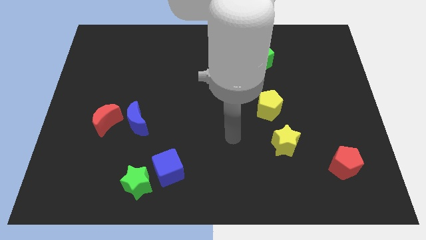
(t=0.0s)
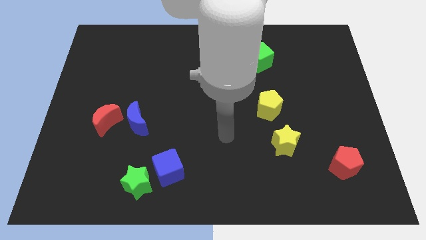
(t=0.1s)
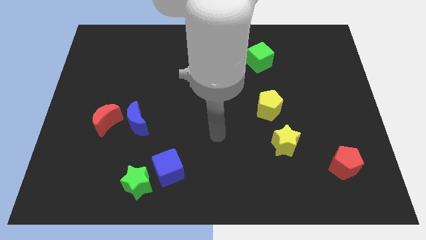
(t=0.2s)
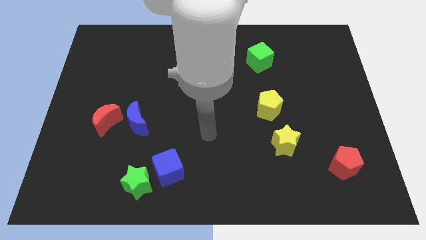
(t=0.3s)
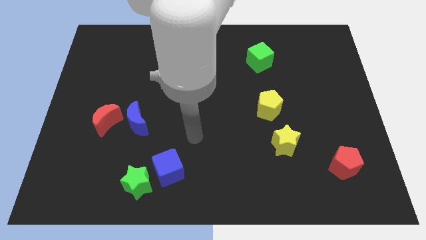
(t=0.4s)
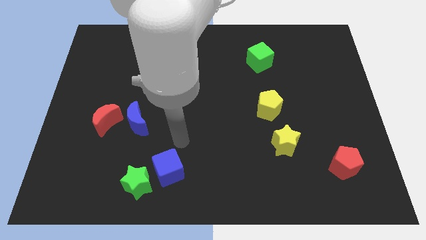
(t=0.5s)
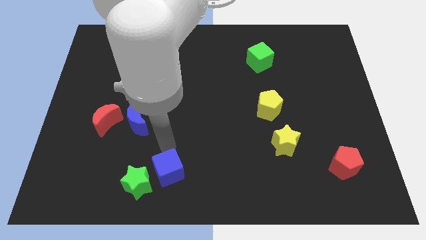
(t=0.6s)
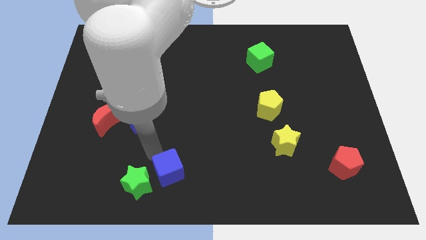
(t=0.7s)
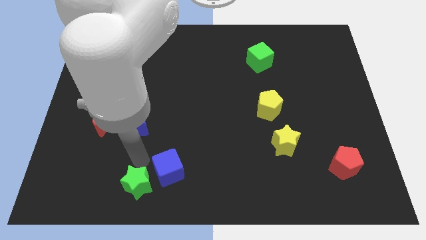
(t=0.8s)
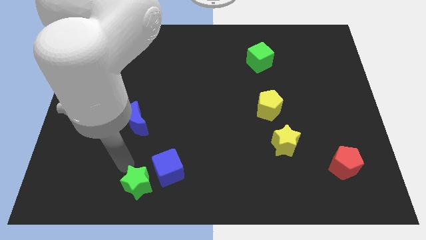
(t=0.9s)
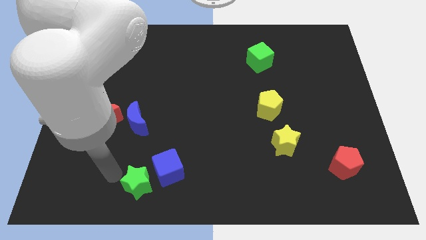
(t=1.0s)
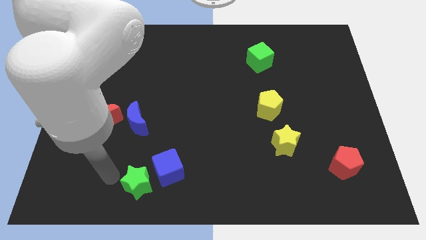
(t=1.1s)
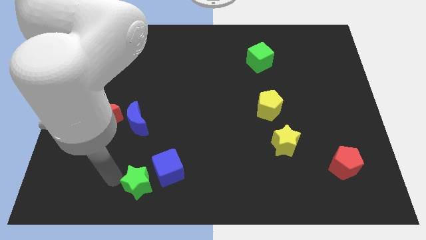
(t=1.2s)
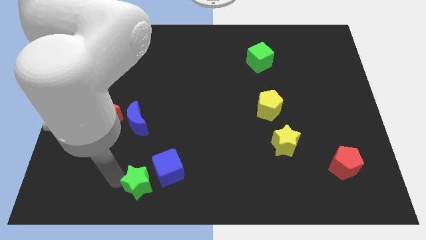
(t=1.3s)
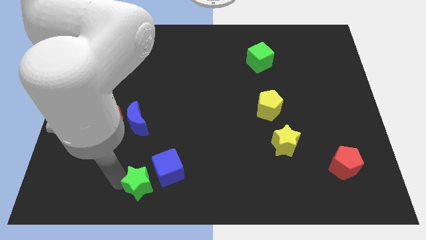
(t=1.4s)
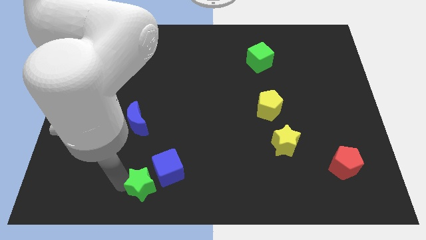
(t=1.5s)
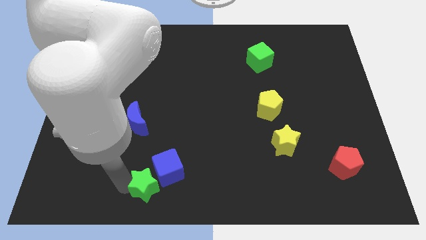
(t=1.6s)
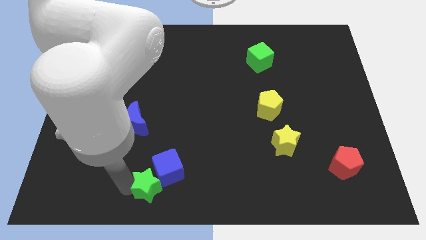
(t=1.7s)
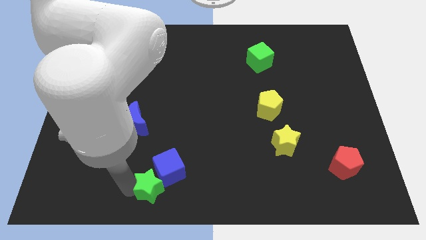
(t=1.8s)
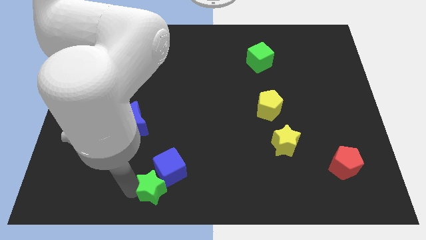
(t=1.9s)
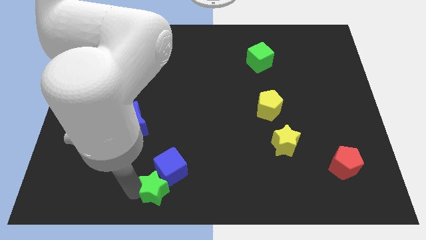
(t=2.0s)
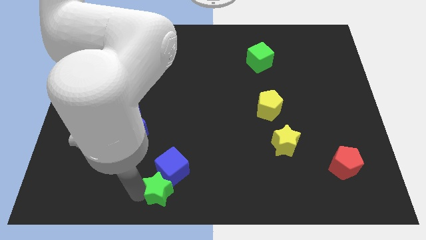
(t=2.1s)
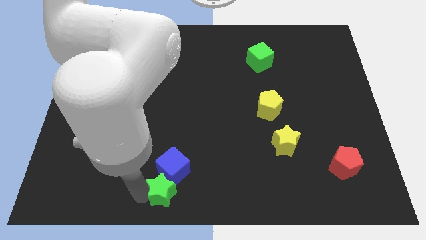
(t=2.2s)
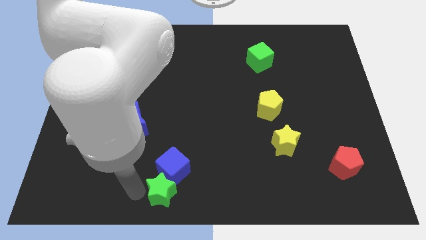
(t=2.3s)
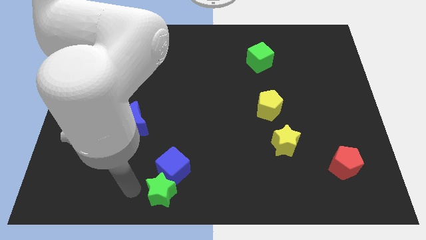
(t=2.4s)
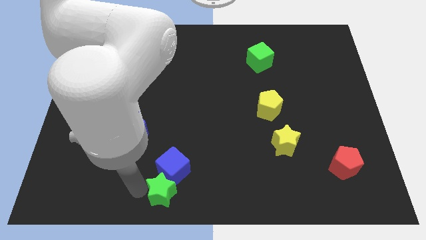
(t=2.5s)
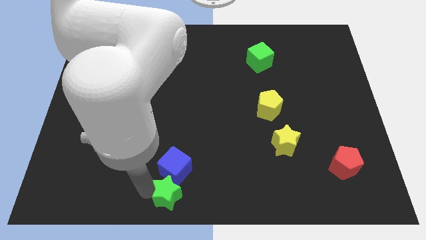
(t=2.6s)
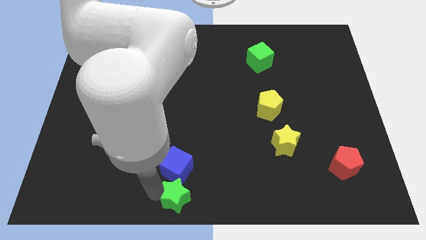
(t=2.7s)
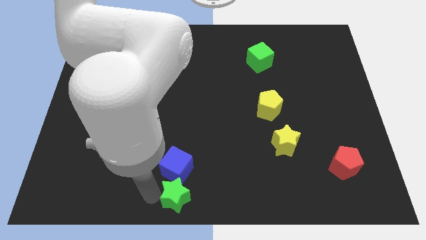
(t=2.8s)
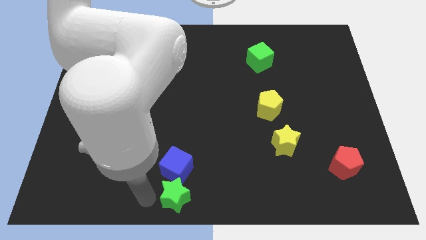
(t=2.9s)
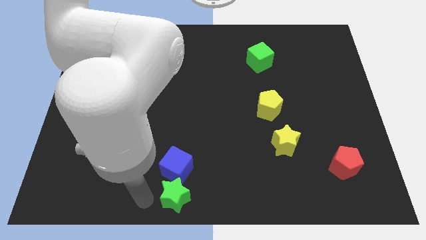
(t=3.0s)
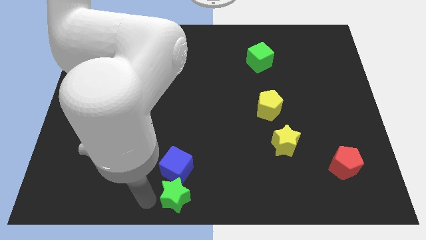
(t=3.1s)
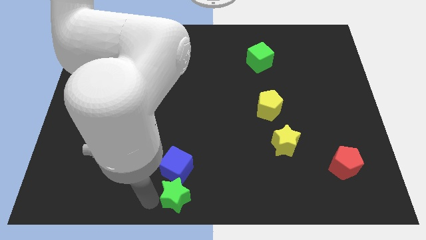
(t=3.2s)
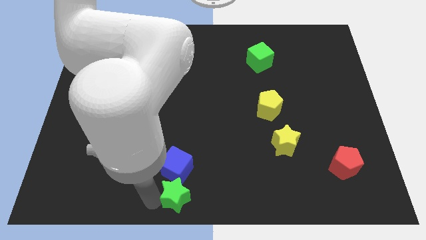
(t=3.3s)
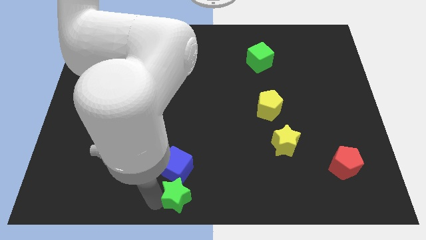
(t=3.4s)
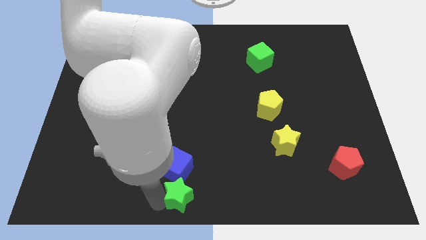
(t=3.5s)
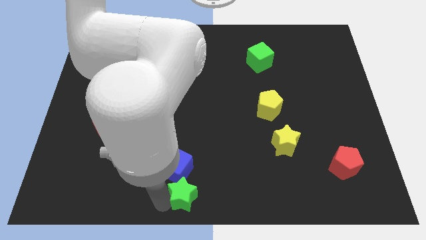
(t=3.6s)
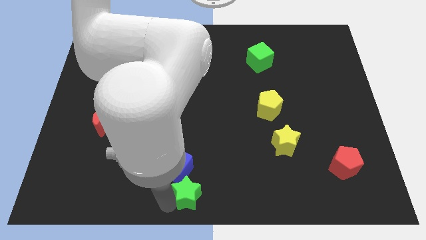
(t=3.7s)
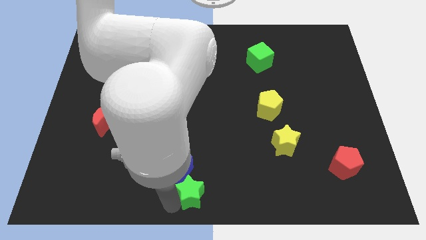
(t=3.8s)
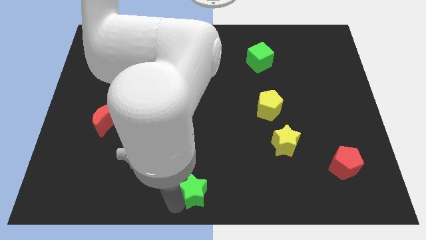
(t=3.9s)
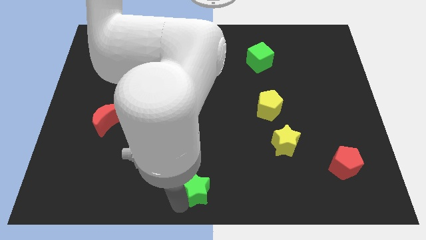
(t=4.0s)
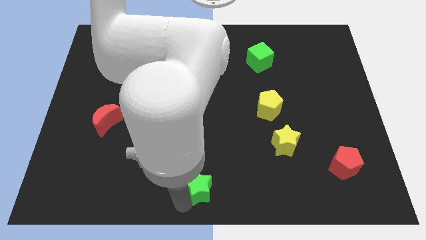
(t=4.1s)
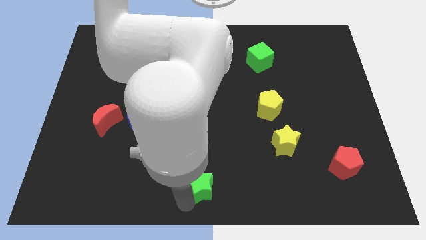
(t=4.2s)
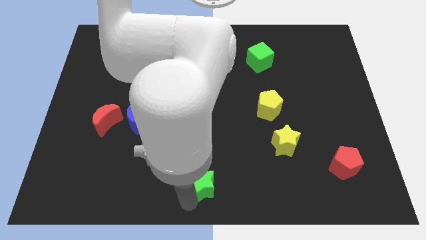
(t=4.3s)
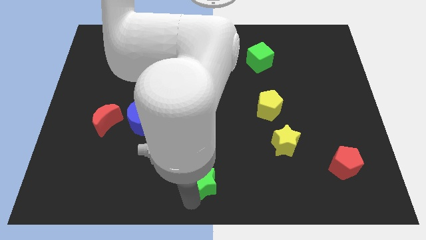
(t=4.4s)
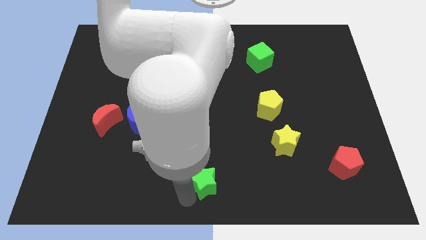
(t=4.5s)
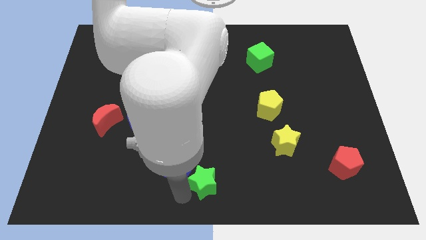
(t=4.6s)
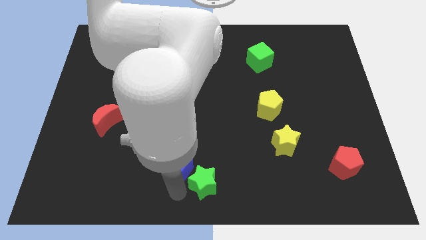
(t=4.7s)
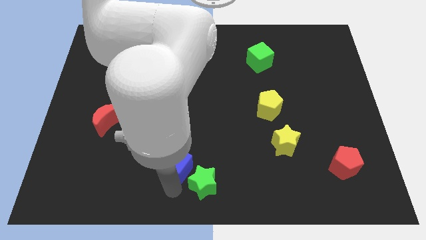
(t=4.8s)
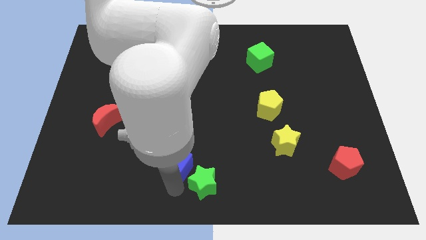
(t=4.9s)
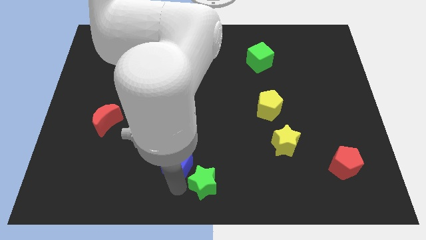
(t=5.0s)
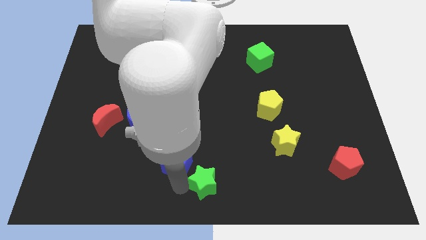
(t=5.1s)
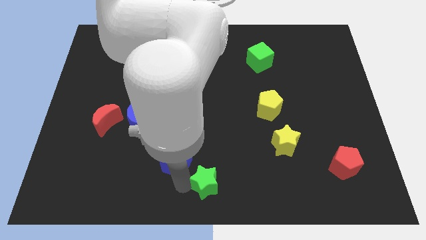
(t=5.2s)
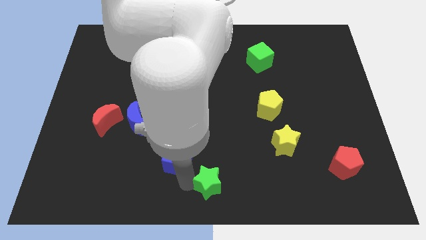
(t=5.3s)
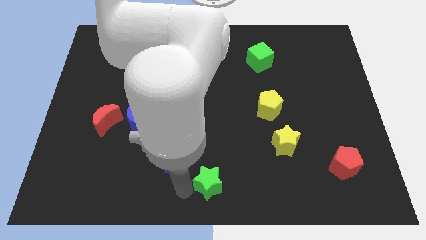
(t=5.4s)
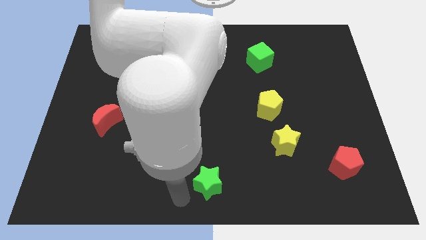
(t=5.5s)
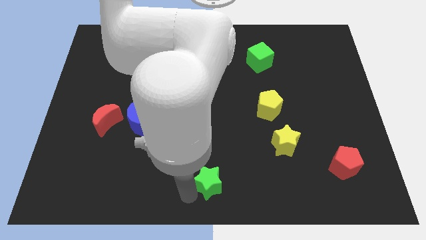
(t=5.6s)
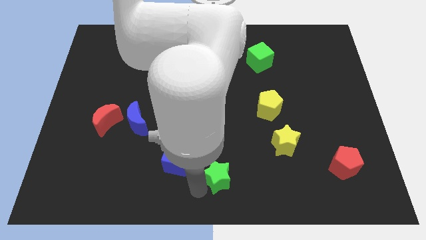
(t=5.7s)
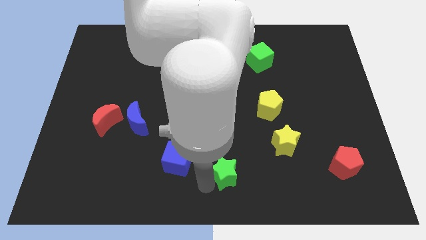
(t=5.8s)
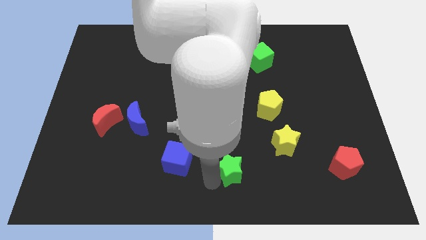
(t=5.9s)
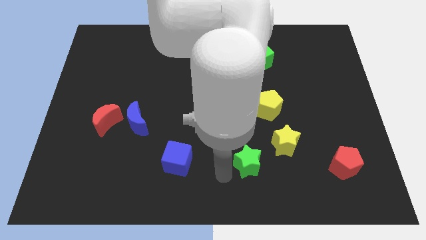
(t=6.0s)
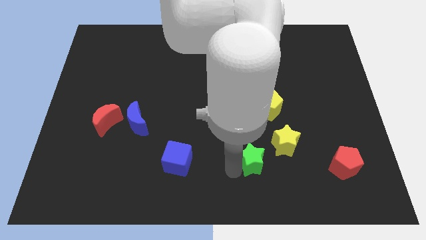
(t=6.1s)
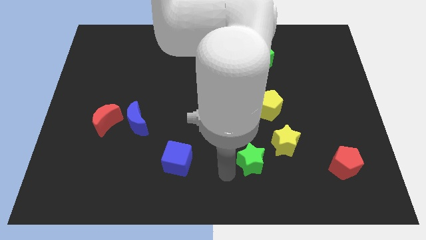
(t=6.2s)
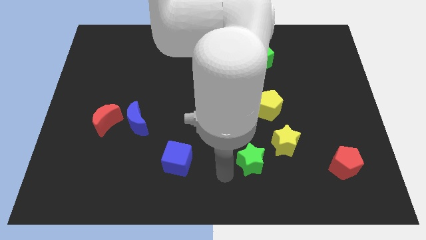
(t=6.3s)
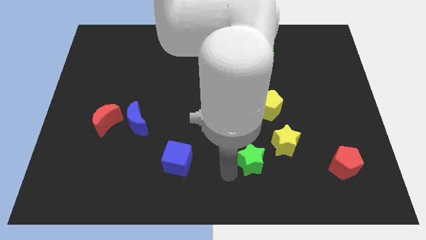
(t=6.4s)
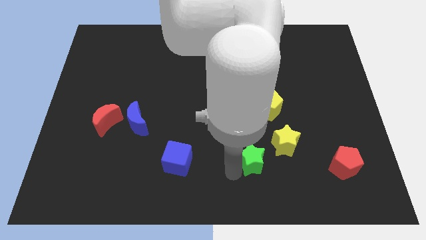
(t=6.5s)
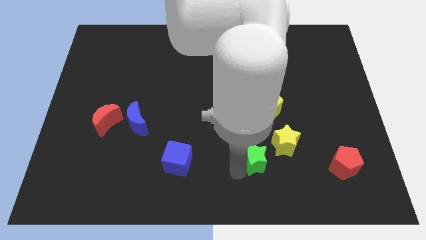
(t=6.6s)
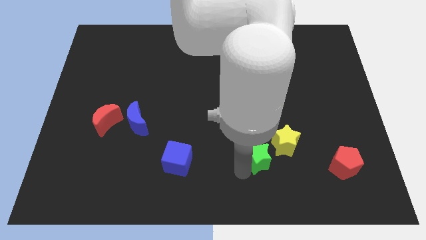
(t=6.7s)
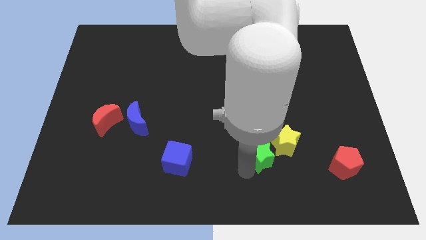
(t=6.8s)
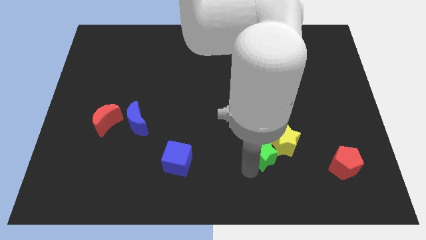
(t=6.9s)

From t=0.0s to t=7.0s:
move the green star next to the yellow star
